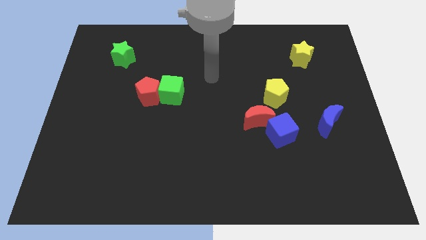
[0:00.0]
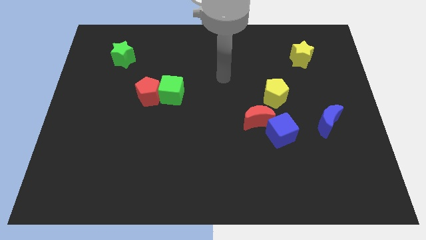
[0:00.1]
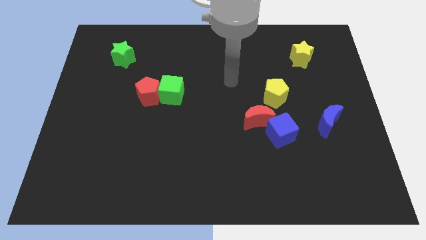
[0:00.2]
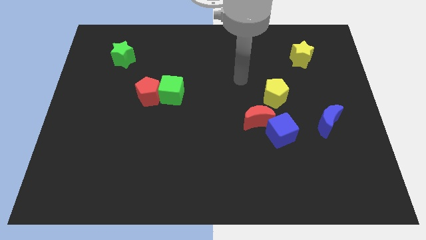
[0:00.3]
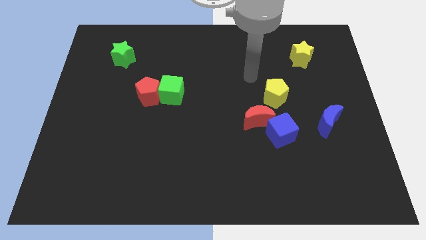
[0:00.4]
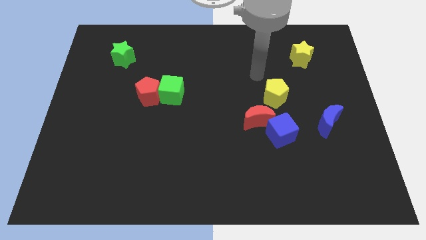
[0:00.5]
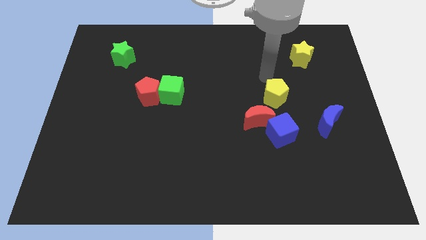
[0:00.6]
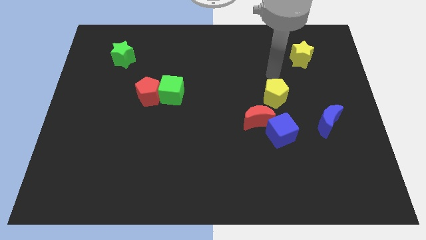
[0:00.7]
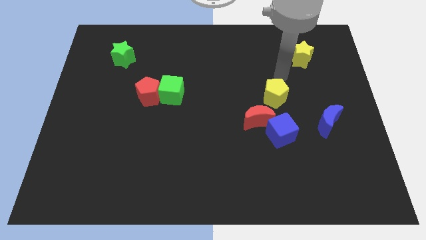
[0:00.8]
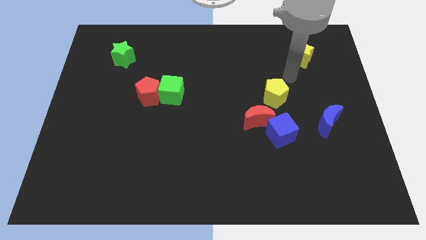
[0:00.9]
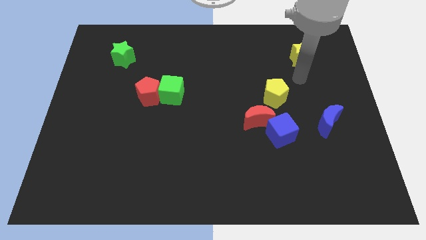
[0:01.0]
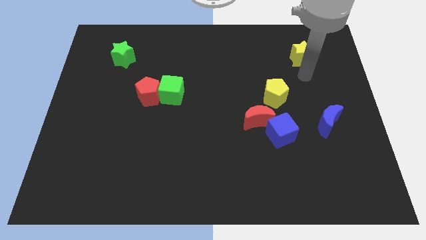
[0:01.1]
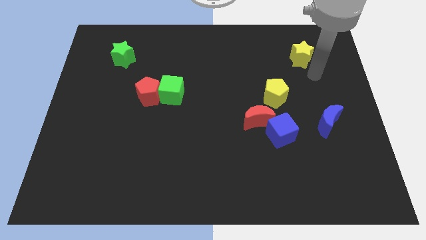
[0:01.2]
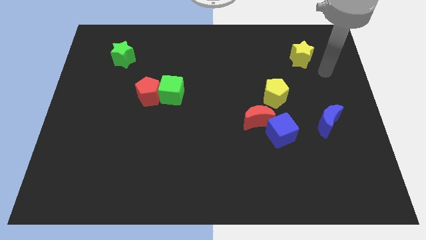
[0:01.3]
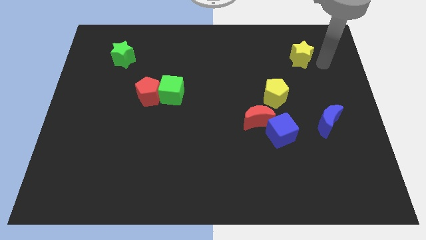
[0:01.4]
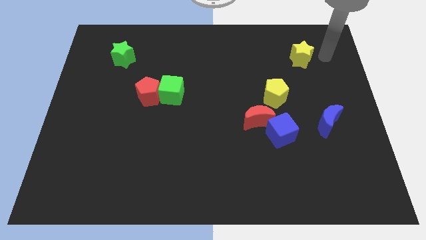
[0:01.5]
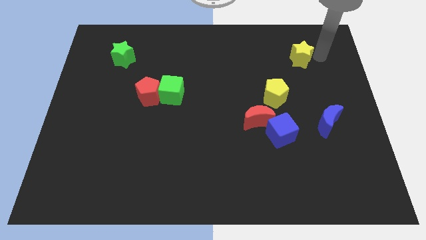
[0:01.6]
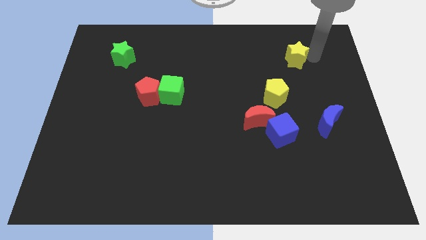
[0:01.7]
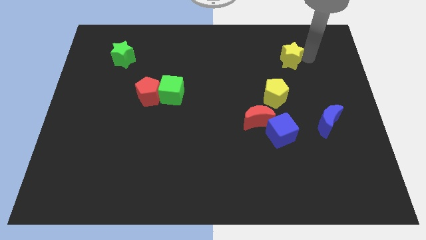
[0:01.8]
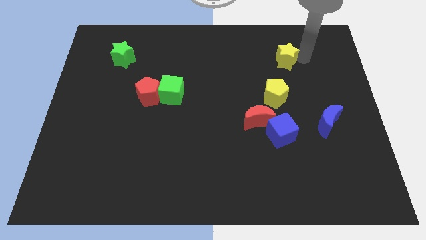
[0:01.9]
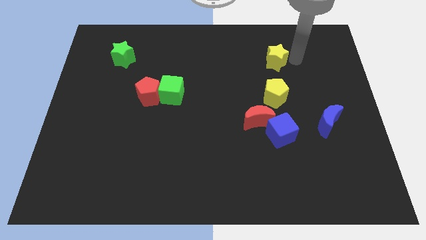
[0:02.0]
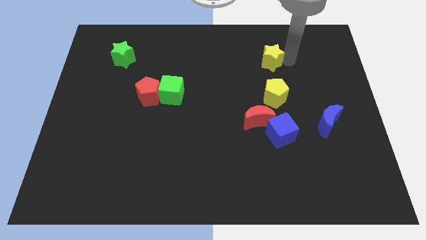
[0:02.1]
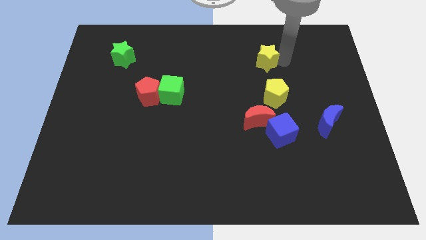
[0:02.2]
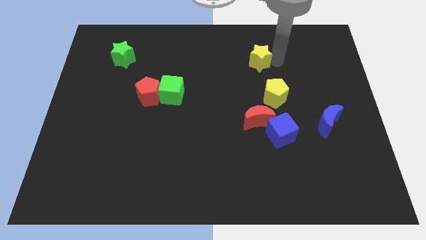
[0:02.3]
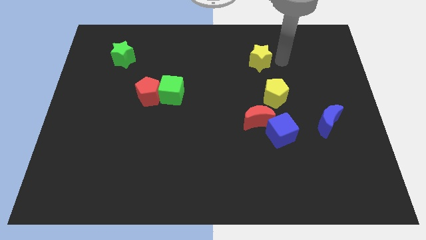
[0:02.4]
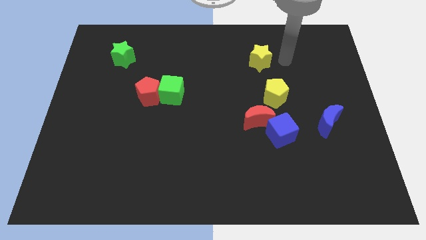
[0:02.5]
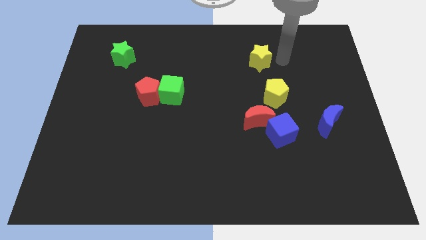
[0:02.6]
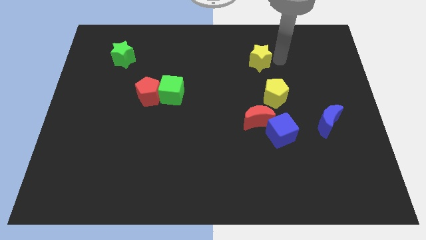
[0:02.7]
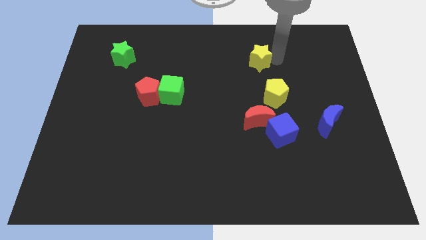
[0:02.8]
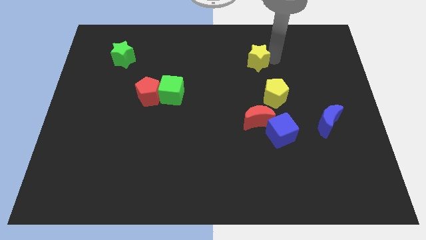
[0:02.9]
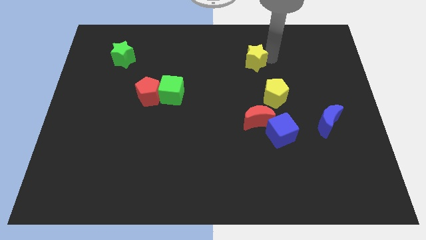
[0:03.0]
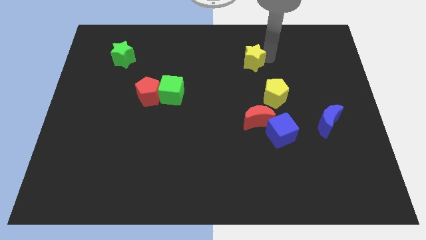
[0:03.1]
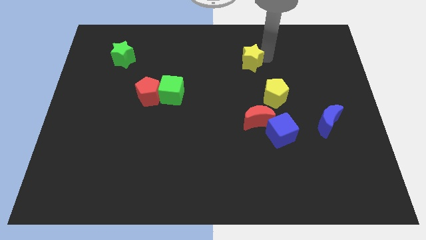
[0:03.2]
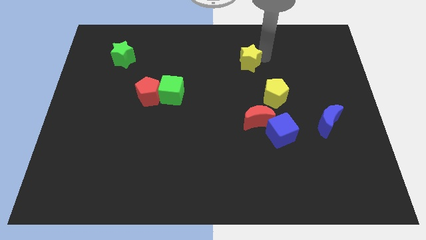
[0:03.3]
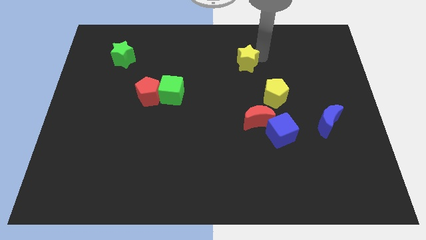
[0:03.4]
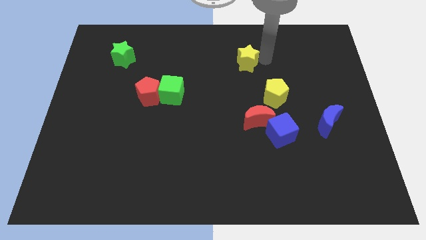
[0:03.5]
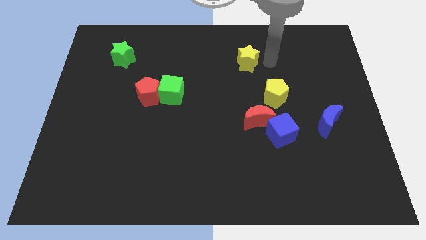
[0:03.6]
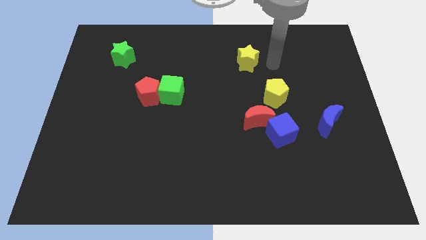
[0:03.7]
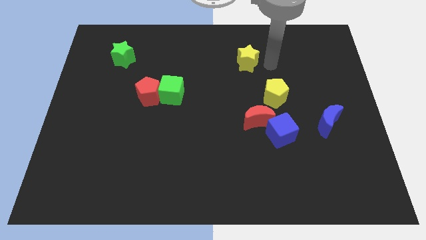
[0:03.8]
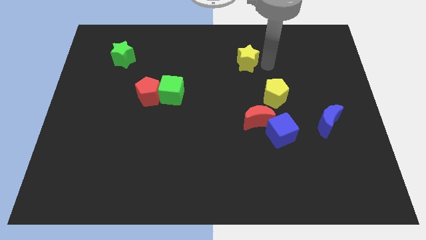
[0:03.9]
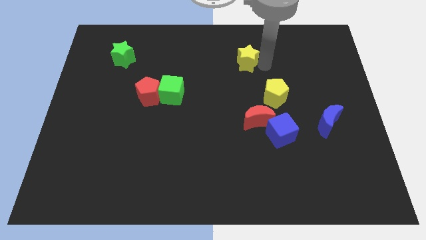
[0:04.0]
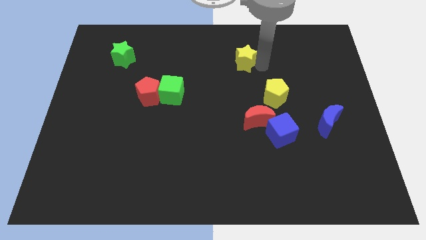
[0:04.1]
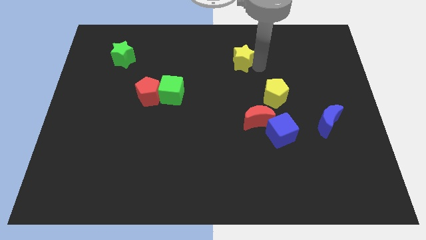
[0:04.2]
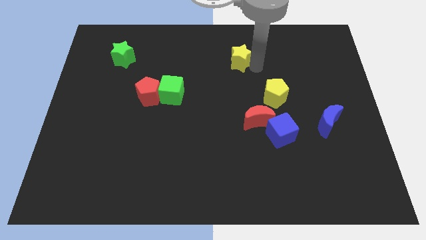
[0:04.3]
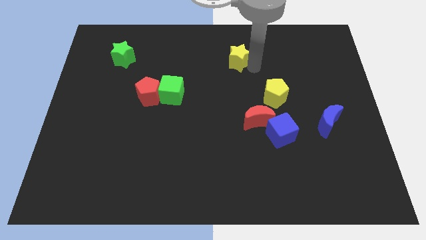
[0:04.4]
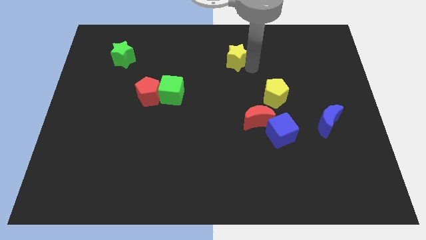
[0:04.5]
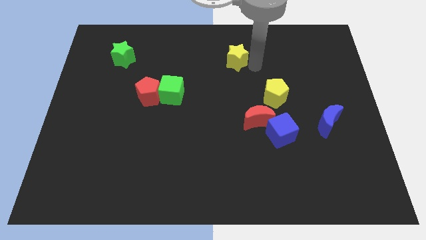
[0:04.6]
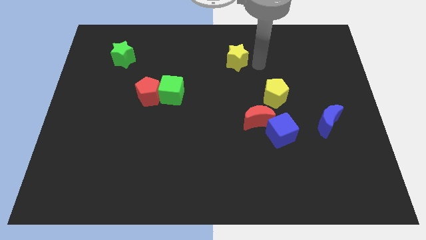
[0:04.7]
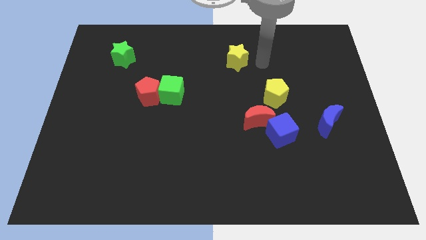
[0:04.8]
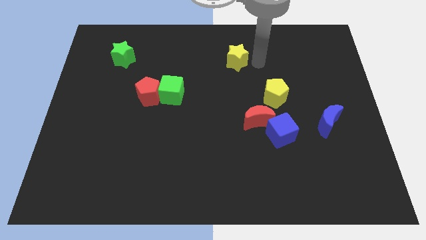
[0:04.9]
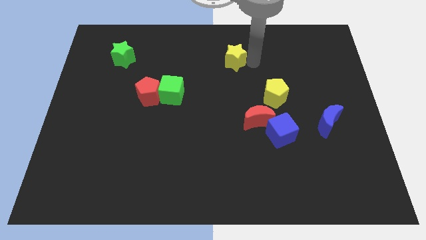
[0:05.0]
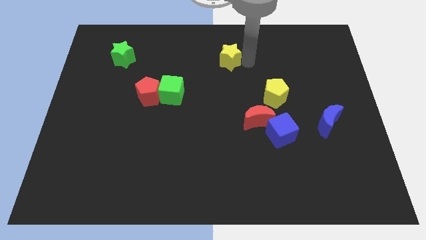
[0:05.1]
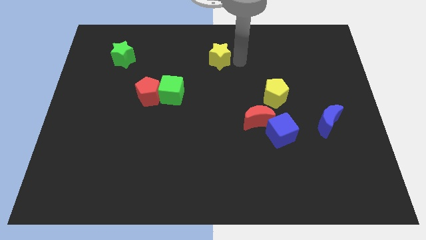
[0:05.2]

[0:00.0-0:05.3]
slide the yellow star to the left

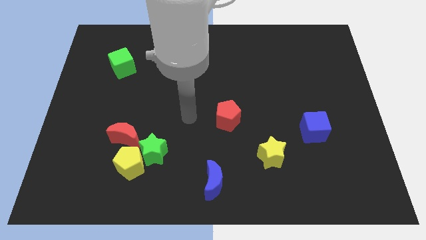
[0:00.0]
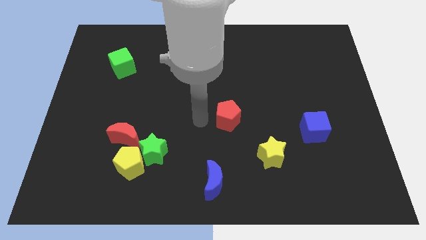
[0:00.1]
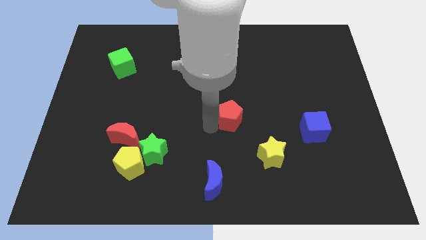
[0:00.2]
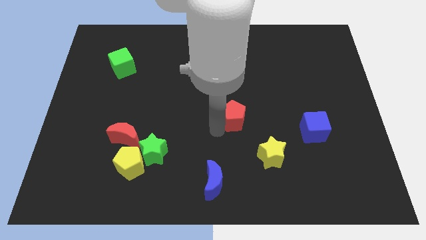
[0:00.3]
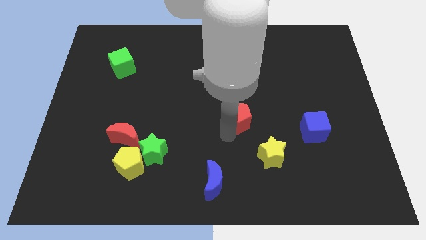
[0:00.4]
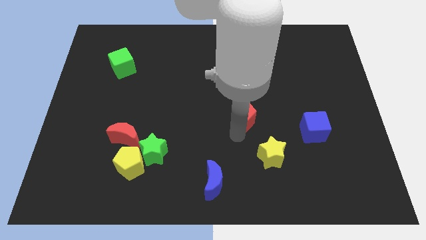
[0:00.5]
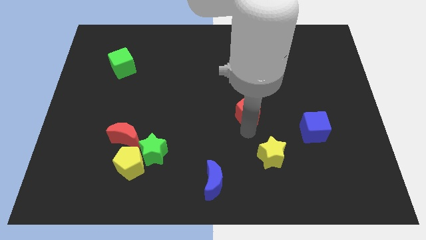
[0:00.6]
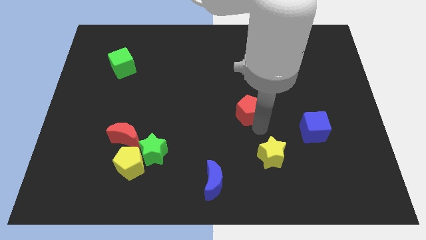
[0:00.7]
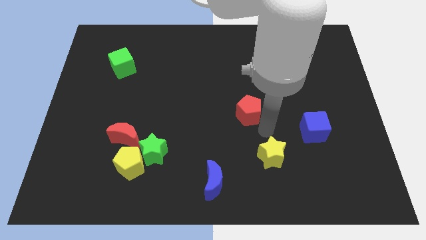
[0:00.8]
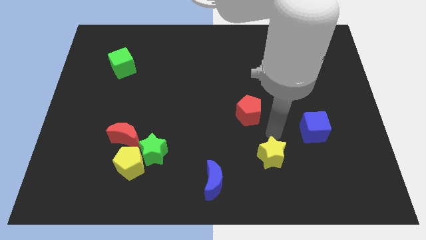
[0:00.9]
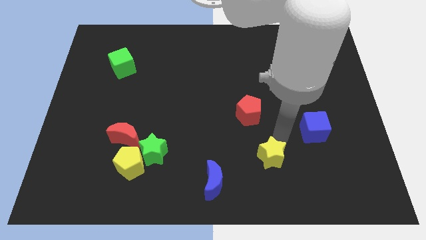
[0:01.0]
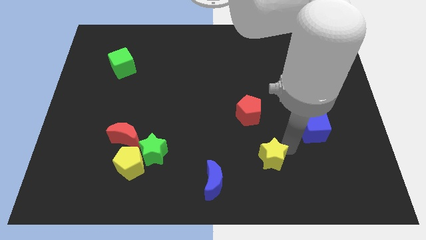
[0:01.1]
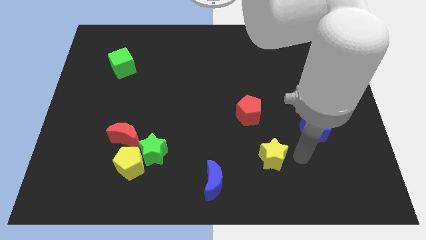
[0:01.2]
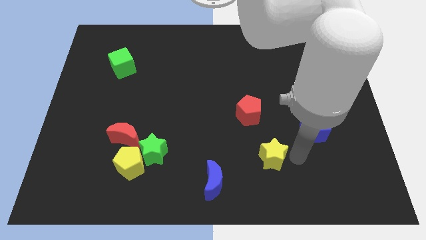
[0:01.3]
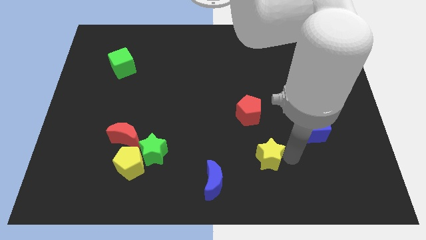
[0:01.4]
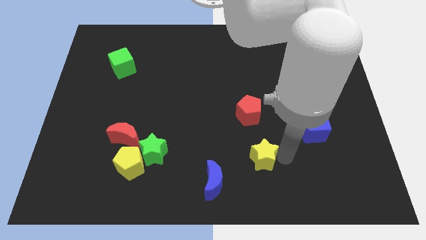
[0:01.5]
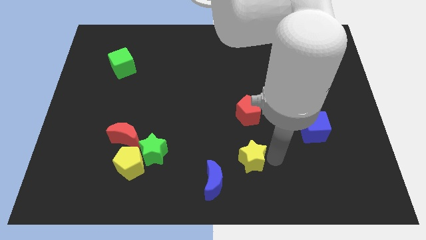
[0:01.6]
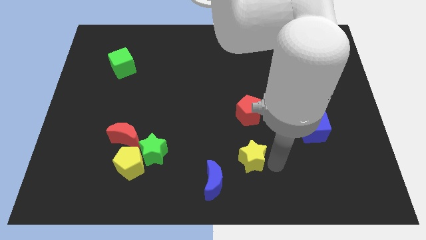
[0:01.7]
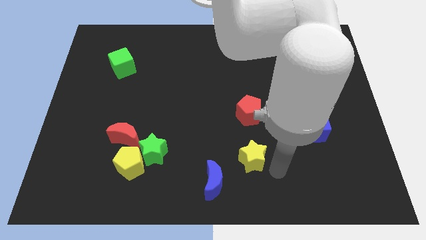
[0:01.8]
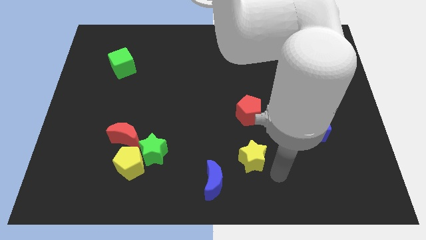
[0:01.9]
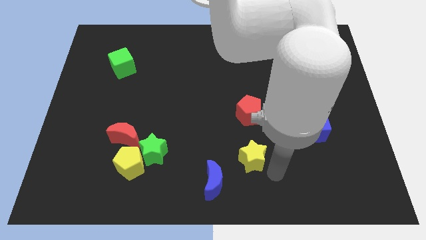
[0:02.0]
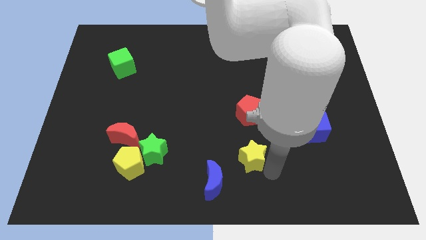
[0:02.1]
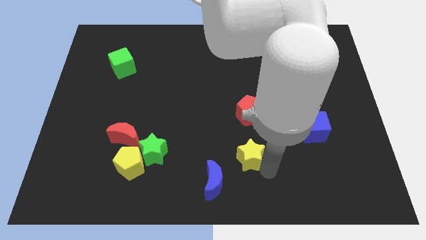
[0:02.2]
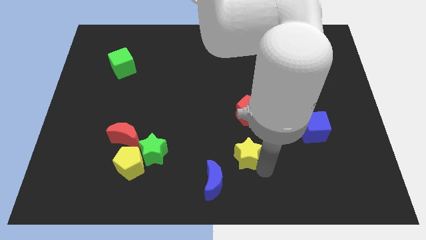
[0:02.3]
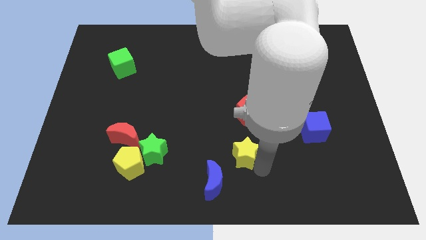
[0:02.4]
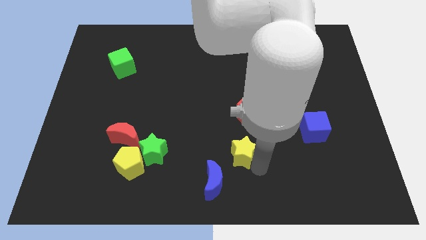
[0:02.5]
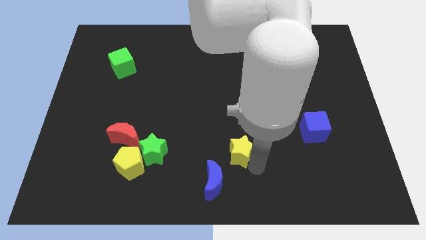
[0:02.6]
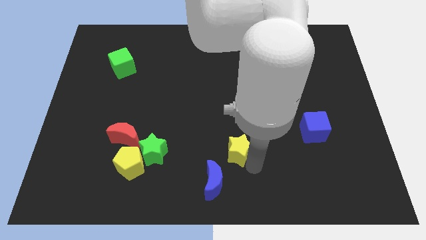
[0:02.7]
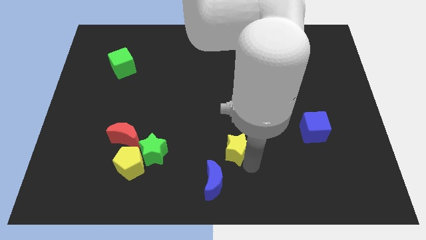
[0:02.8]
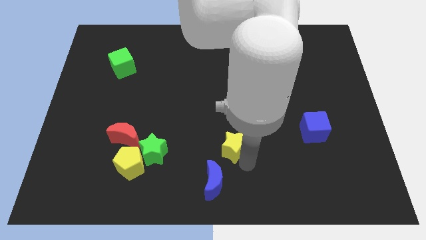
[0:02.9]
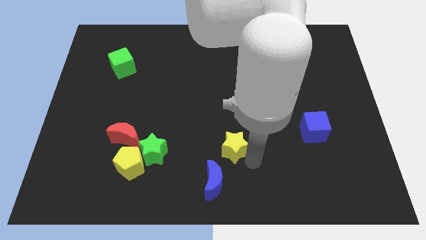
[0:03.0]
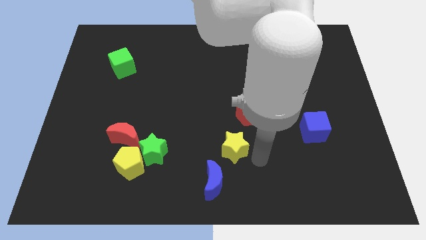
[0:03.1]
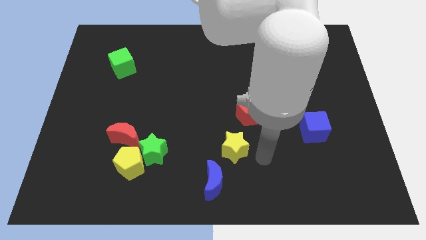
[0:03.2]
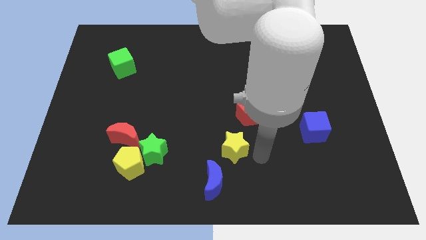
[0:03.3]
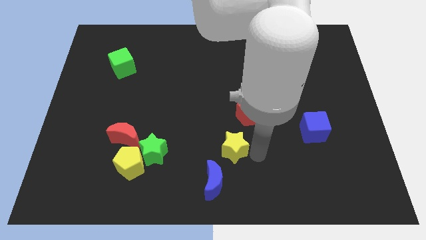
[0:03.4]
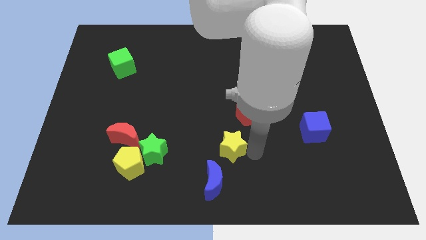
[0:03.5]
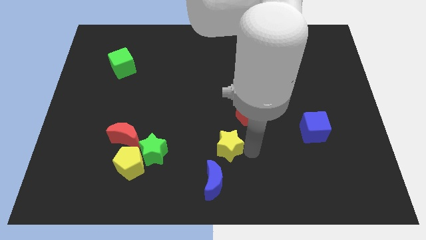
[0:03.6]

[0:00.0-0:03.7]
slide the yellow star a little up and then to the left
